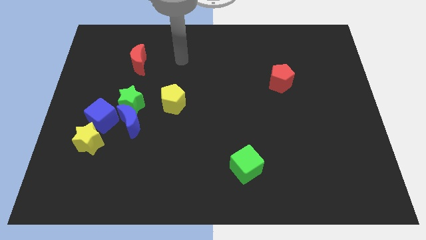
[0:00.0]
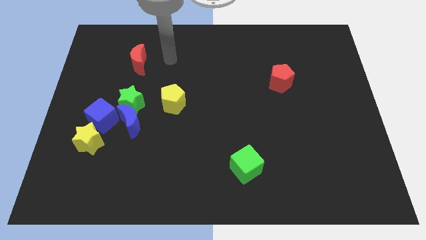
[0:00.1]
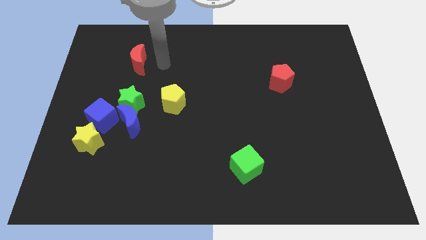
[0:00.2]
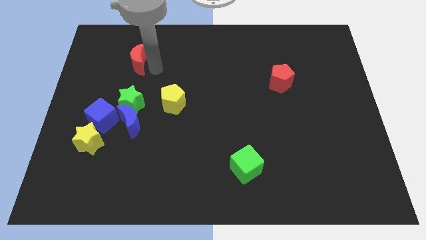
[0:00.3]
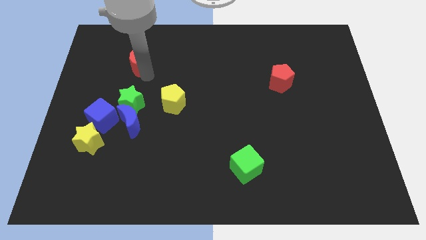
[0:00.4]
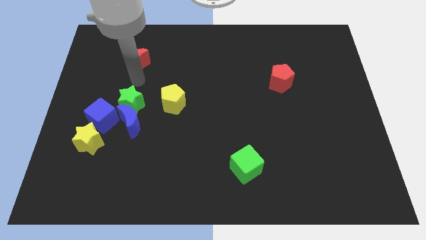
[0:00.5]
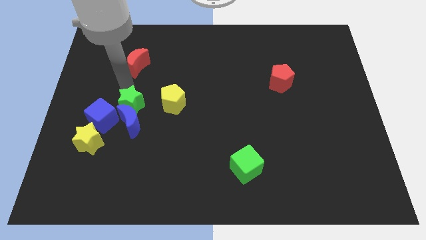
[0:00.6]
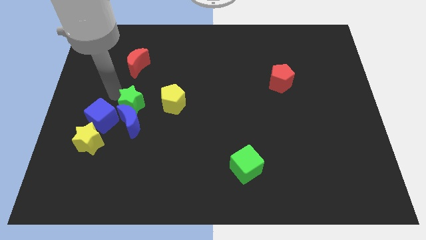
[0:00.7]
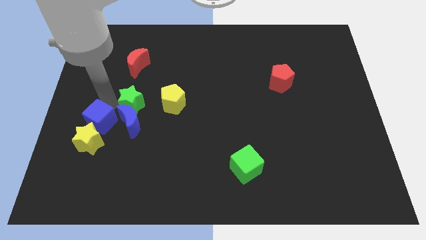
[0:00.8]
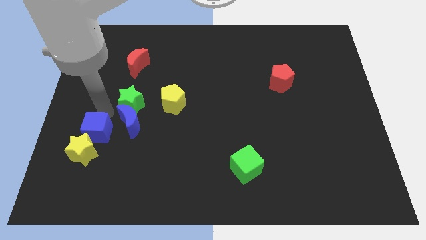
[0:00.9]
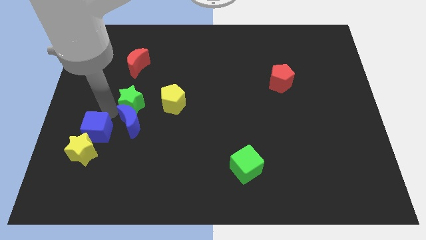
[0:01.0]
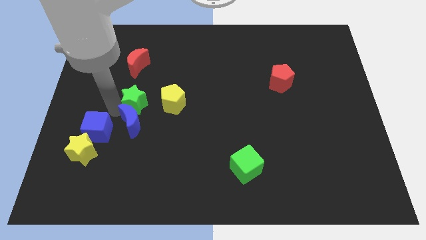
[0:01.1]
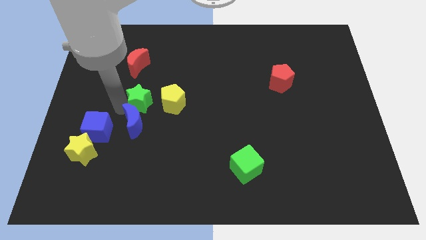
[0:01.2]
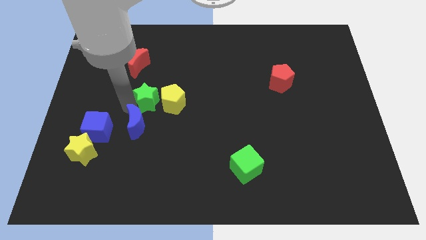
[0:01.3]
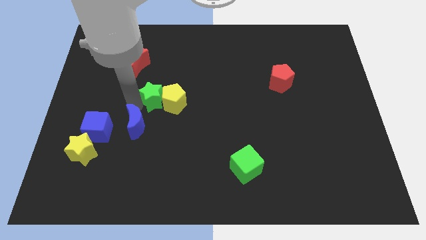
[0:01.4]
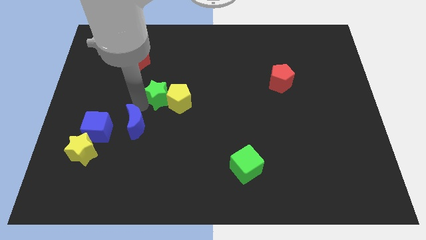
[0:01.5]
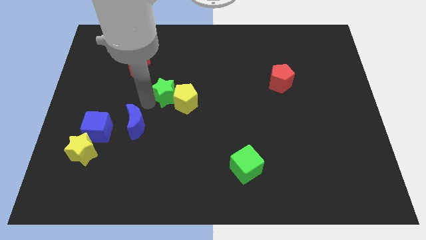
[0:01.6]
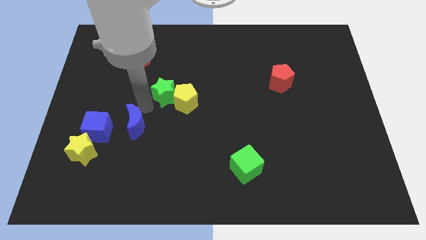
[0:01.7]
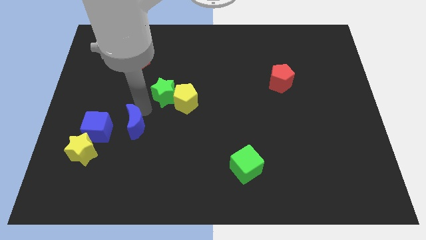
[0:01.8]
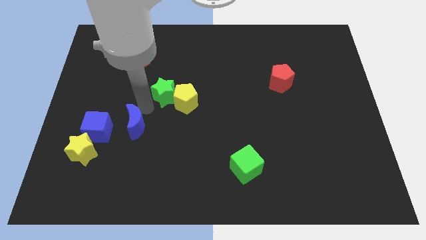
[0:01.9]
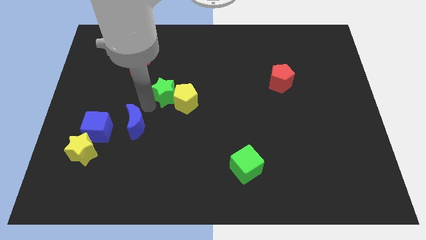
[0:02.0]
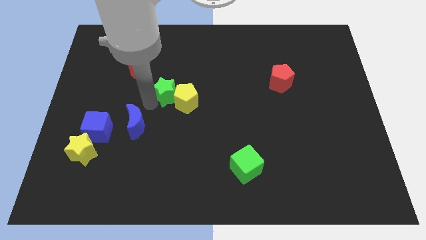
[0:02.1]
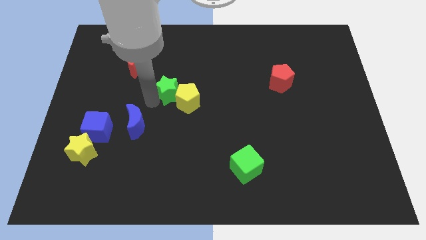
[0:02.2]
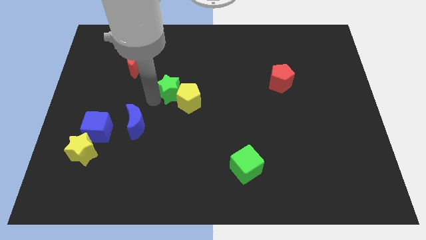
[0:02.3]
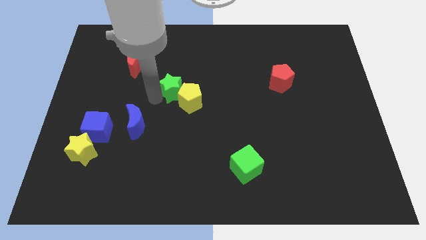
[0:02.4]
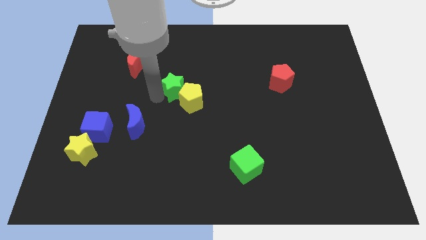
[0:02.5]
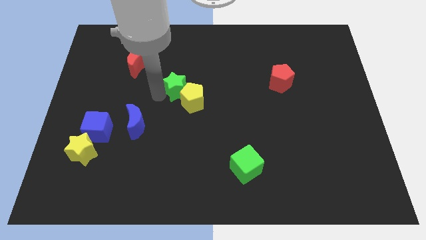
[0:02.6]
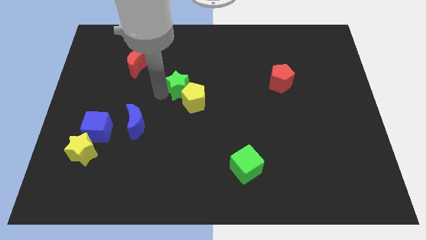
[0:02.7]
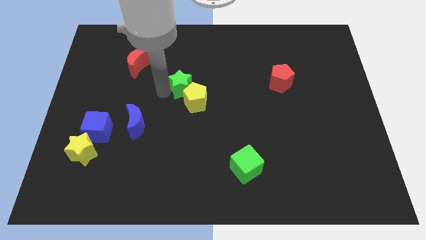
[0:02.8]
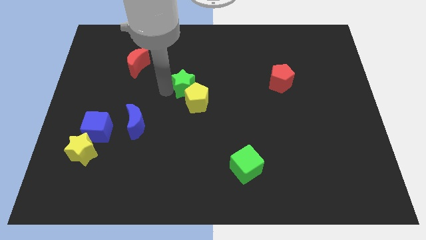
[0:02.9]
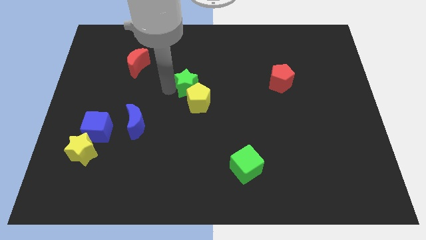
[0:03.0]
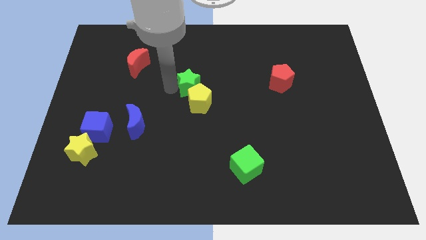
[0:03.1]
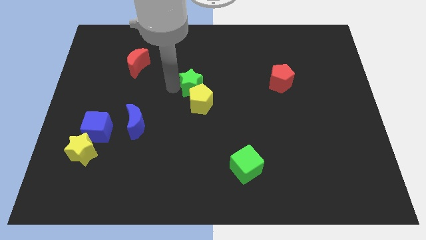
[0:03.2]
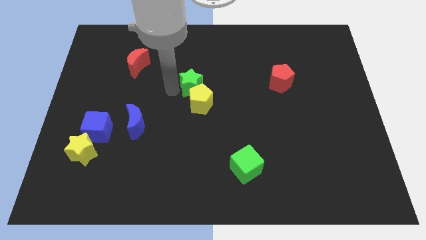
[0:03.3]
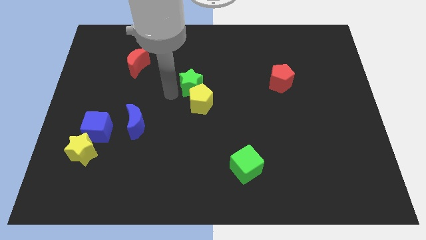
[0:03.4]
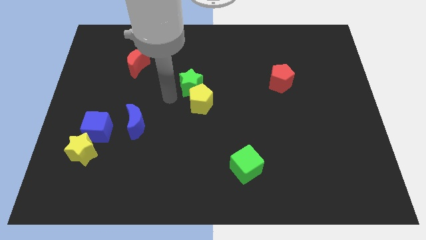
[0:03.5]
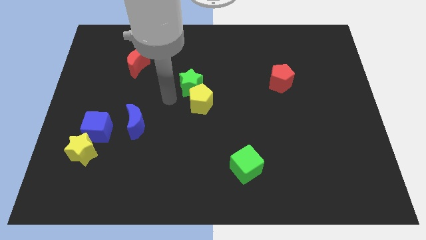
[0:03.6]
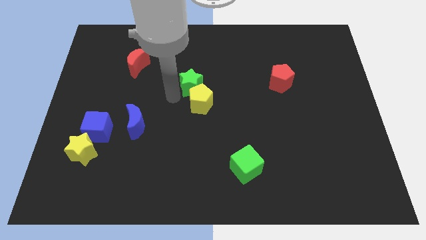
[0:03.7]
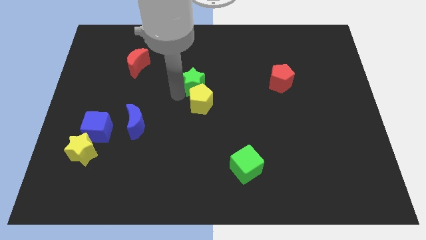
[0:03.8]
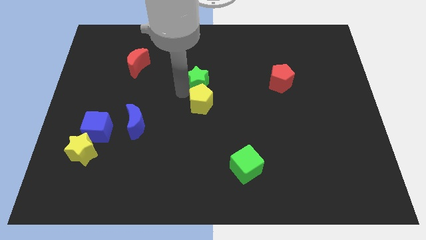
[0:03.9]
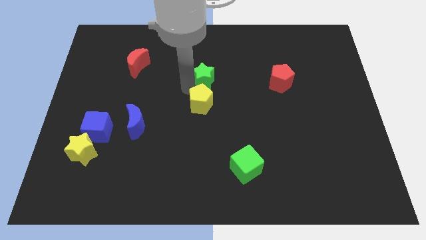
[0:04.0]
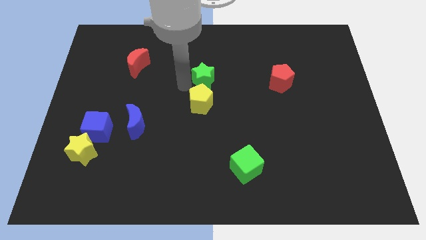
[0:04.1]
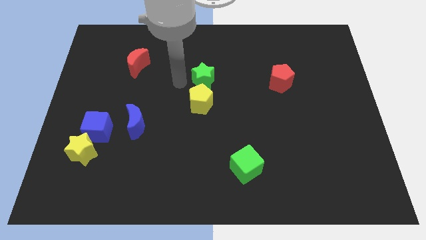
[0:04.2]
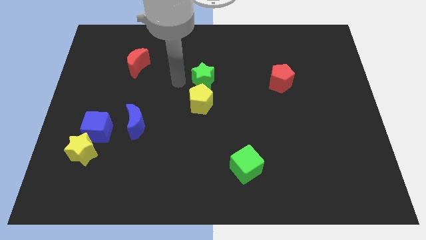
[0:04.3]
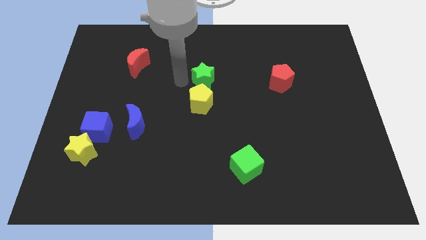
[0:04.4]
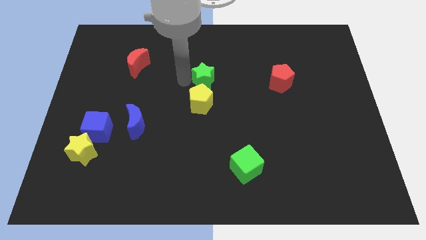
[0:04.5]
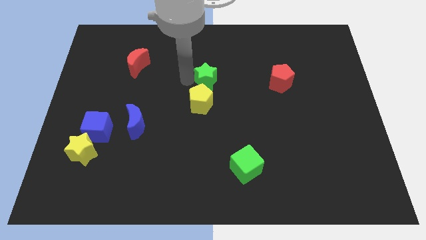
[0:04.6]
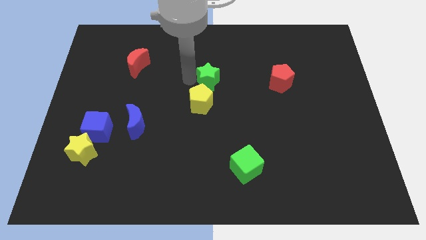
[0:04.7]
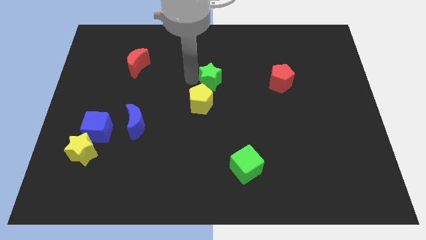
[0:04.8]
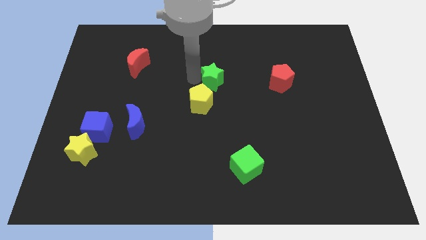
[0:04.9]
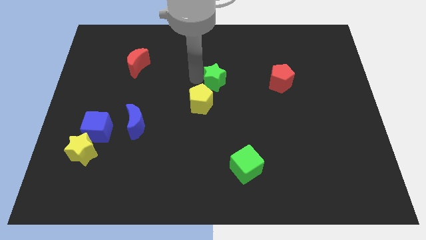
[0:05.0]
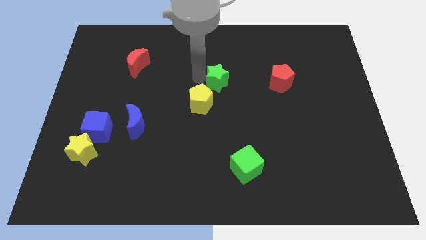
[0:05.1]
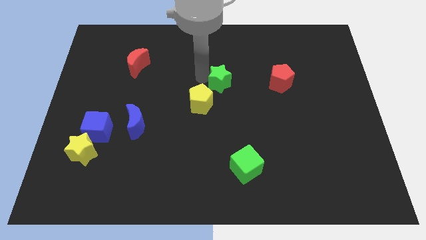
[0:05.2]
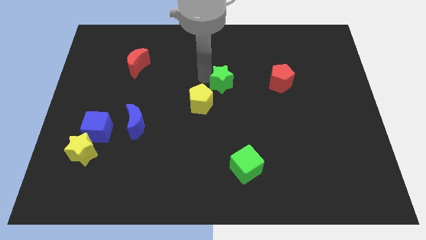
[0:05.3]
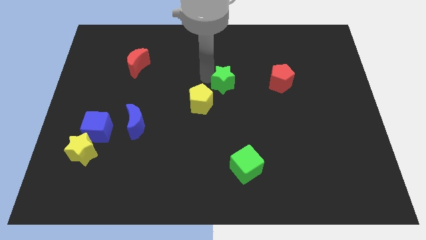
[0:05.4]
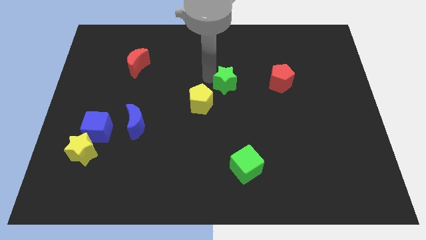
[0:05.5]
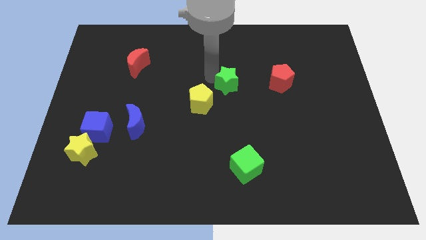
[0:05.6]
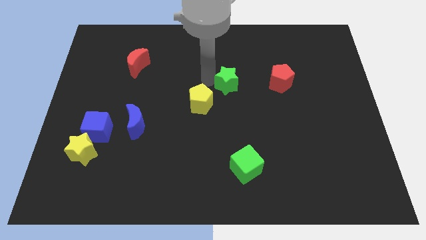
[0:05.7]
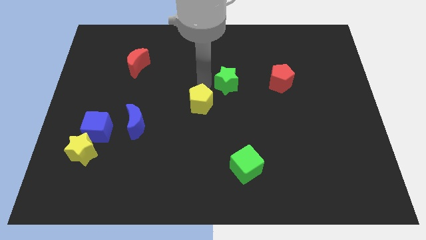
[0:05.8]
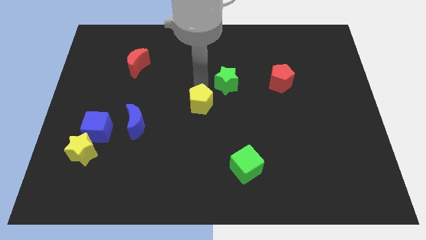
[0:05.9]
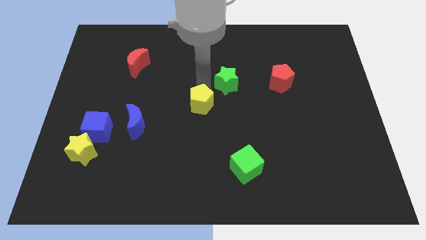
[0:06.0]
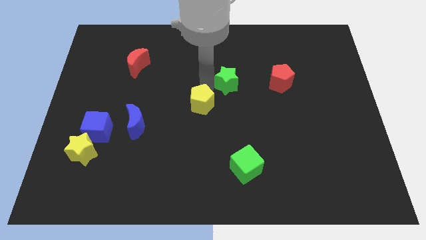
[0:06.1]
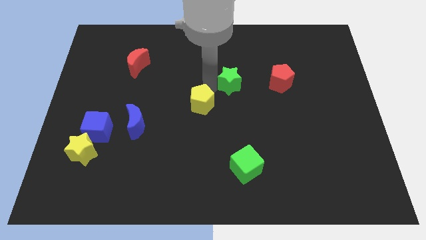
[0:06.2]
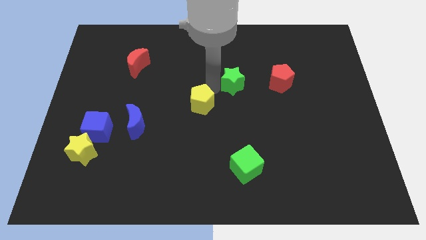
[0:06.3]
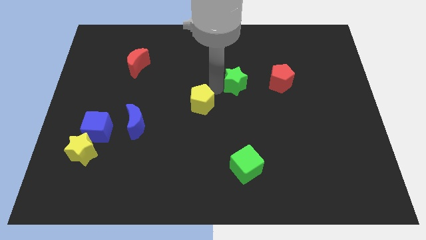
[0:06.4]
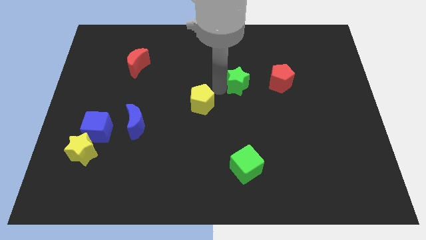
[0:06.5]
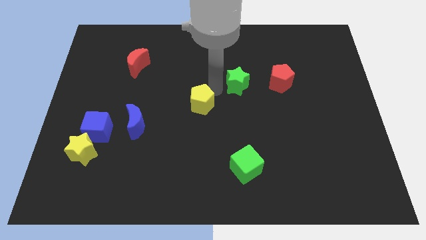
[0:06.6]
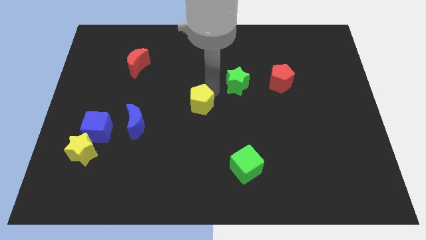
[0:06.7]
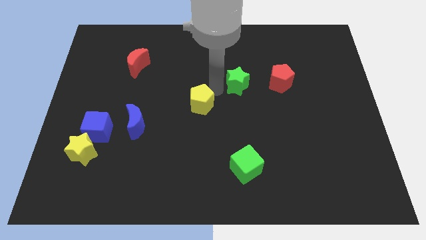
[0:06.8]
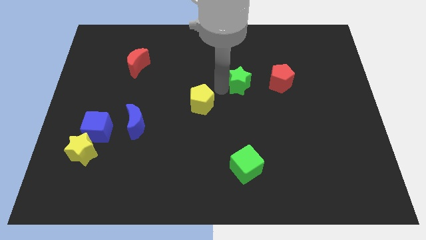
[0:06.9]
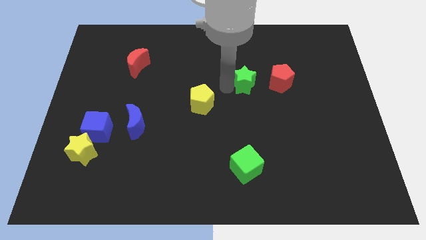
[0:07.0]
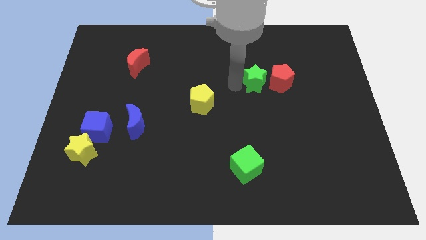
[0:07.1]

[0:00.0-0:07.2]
slide the green star close to the red pentagon

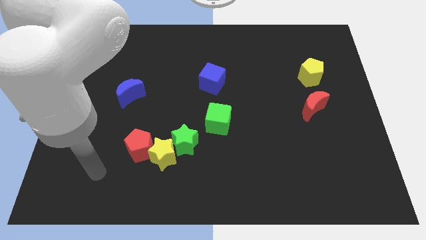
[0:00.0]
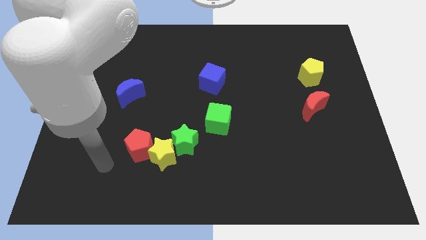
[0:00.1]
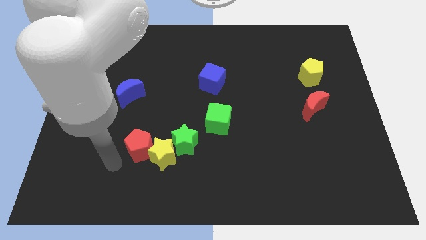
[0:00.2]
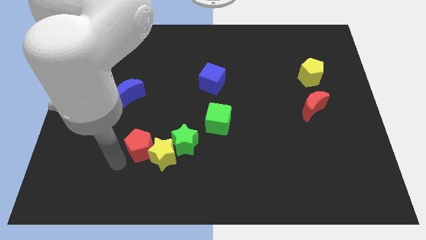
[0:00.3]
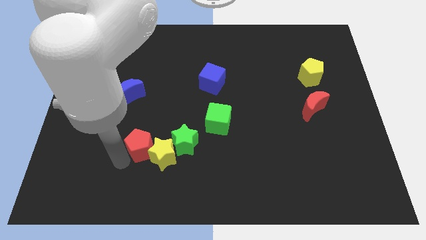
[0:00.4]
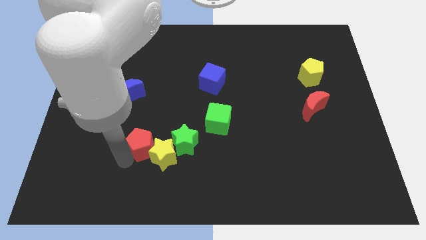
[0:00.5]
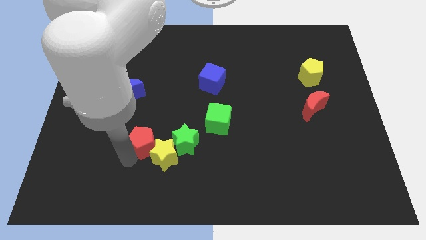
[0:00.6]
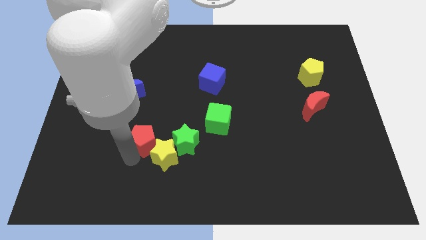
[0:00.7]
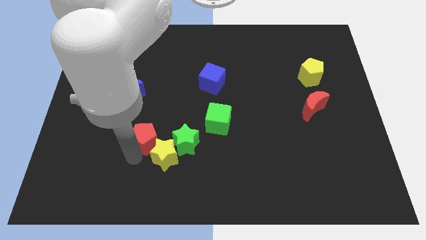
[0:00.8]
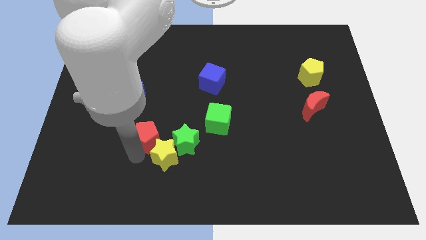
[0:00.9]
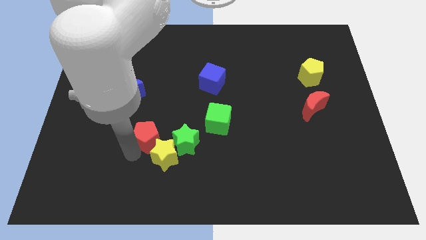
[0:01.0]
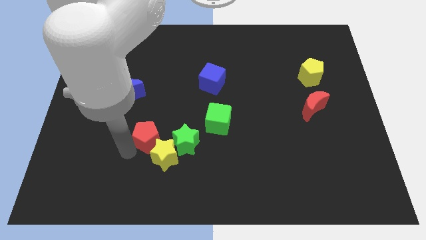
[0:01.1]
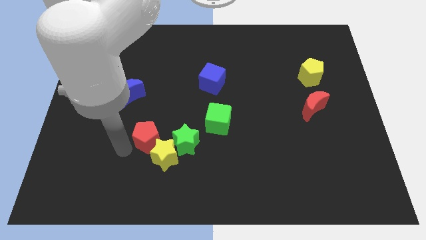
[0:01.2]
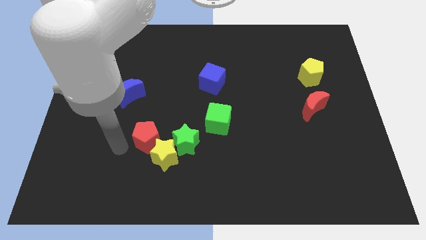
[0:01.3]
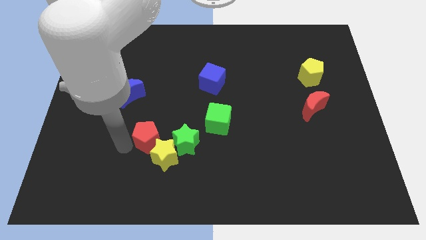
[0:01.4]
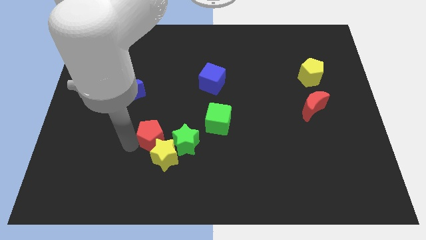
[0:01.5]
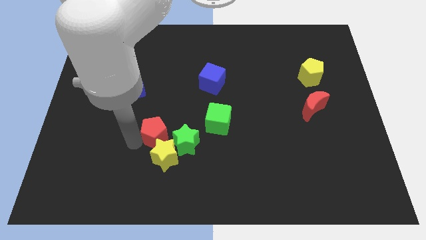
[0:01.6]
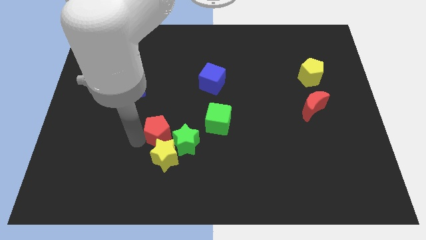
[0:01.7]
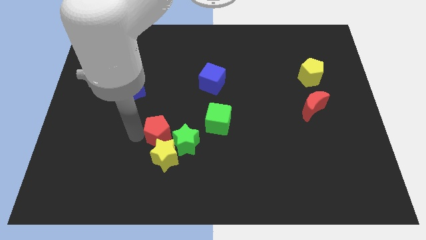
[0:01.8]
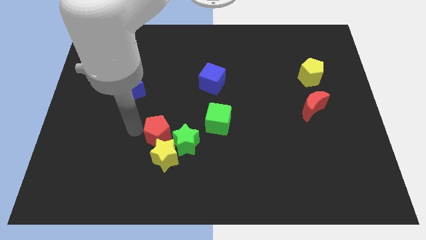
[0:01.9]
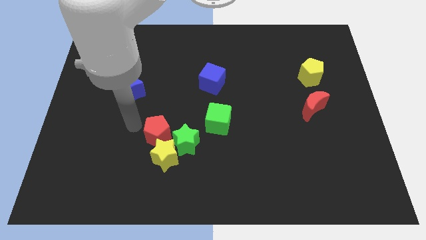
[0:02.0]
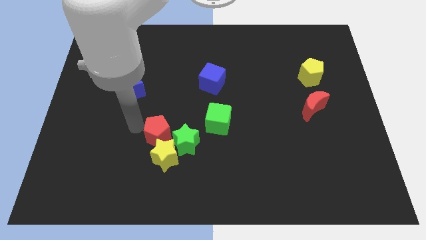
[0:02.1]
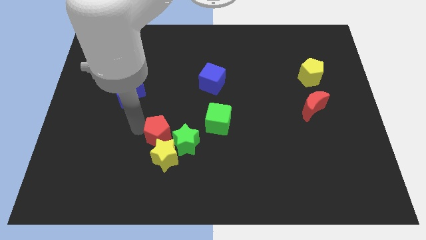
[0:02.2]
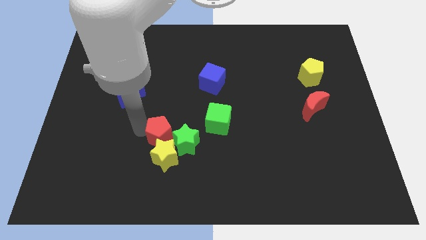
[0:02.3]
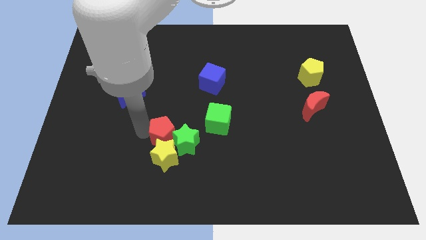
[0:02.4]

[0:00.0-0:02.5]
put the red pentagon next to the green star
